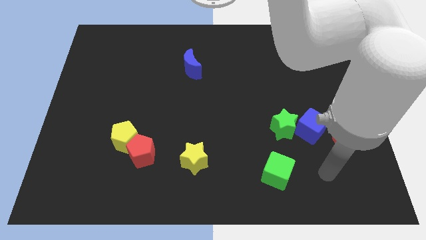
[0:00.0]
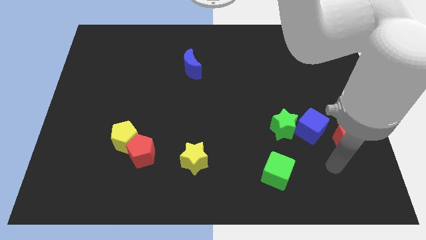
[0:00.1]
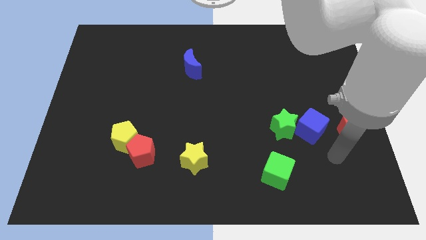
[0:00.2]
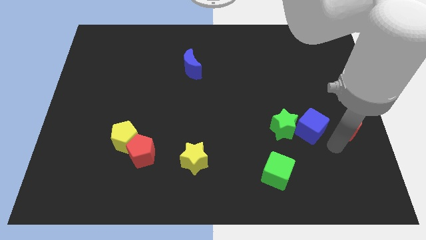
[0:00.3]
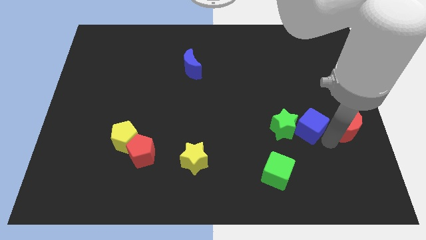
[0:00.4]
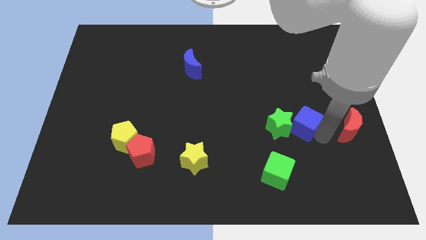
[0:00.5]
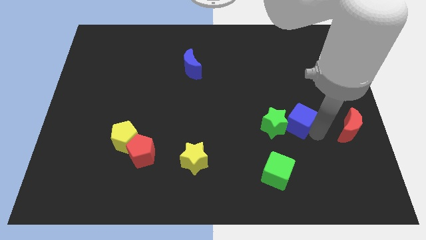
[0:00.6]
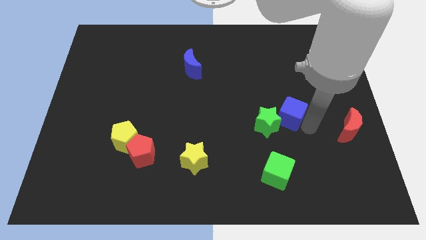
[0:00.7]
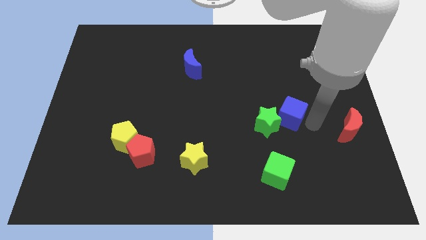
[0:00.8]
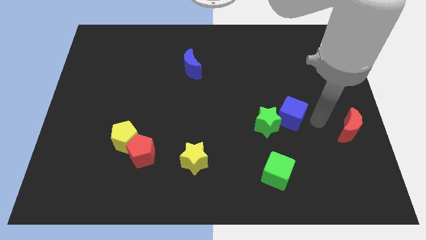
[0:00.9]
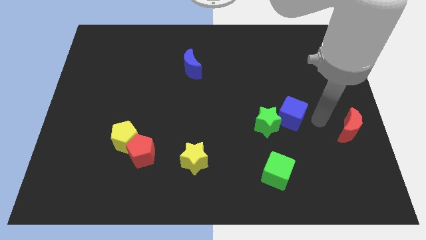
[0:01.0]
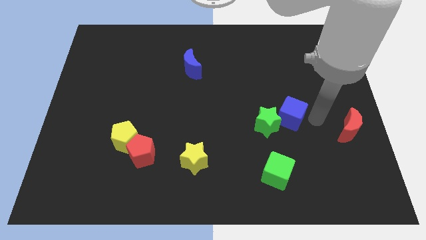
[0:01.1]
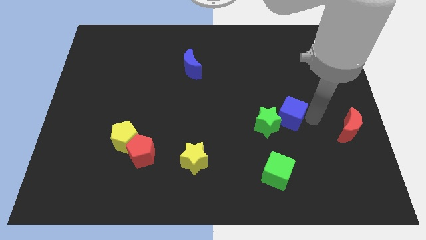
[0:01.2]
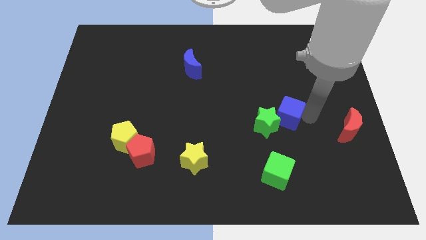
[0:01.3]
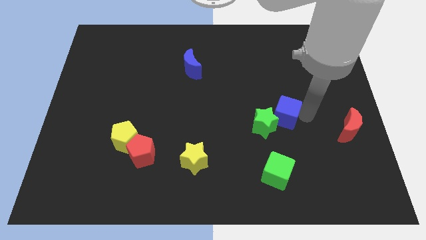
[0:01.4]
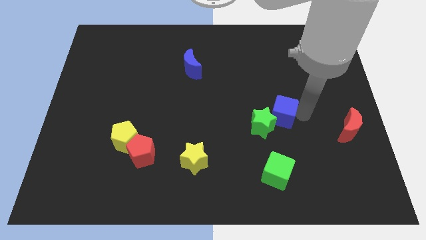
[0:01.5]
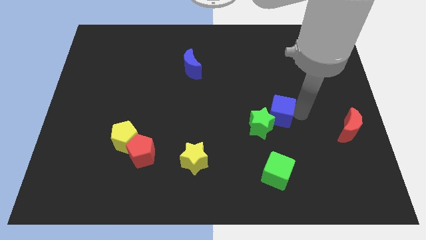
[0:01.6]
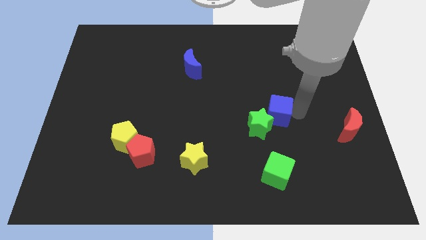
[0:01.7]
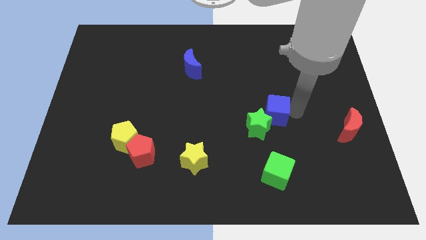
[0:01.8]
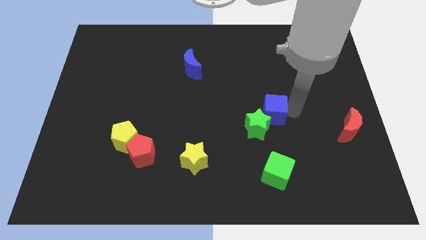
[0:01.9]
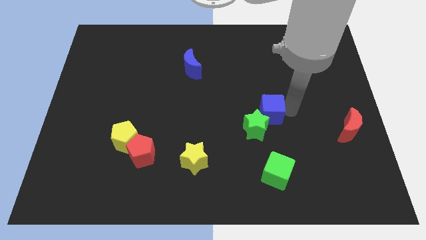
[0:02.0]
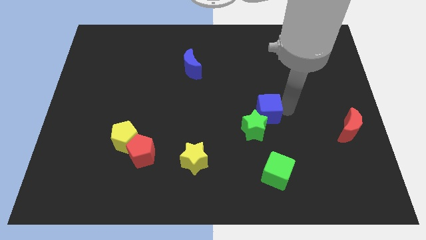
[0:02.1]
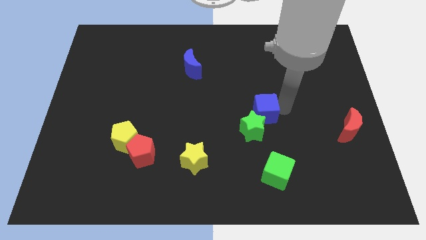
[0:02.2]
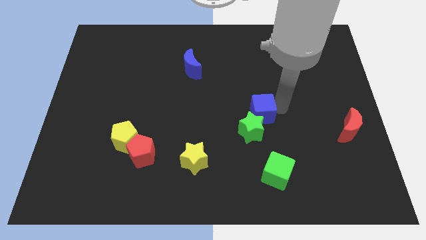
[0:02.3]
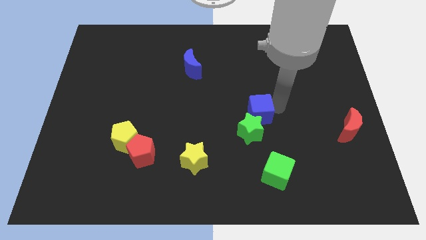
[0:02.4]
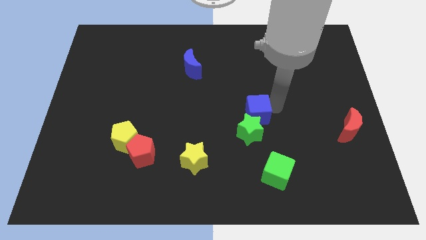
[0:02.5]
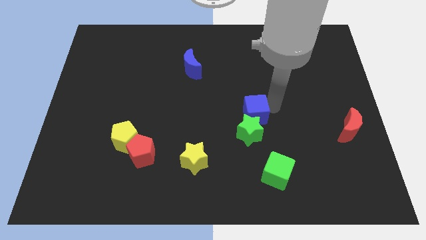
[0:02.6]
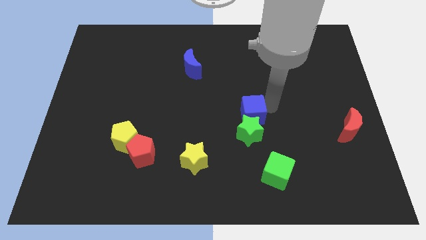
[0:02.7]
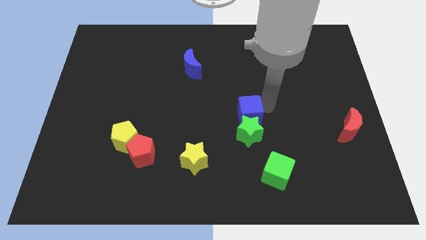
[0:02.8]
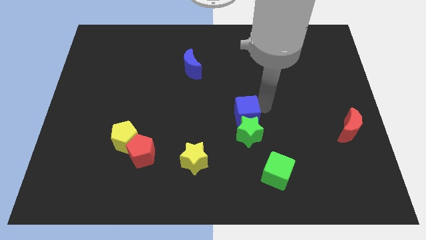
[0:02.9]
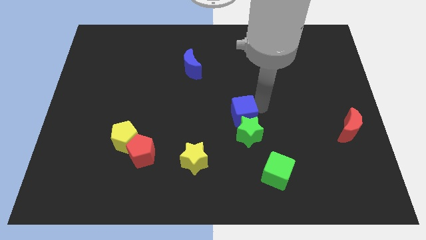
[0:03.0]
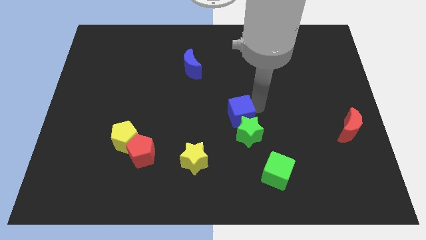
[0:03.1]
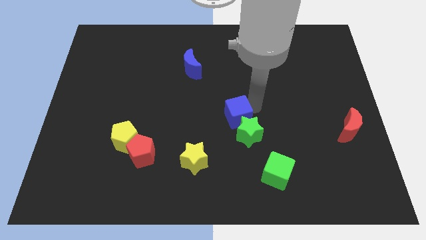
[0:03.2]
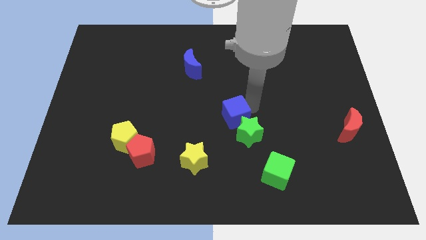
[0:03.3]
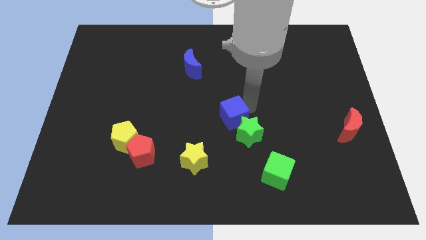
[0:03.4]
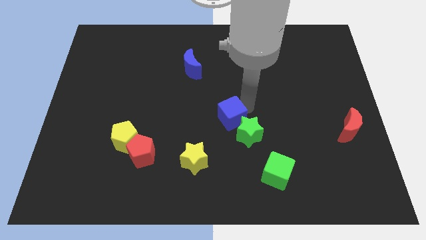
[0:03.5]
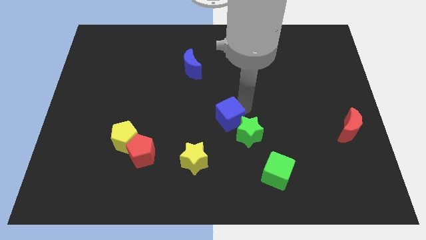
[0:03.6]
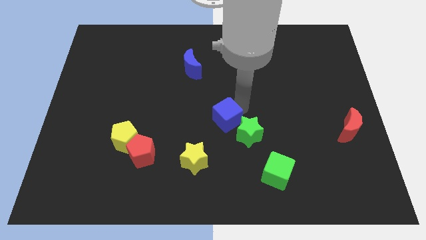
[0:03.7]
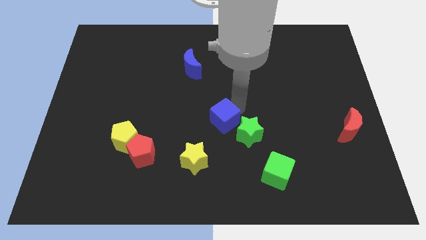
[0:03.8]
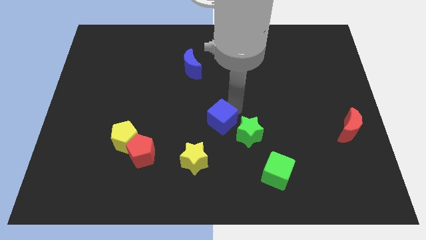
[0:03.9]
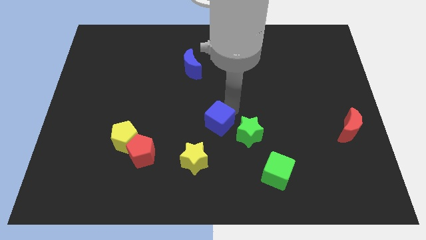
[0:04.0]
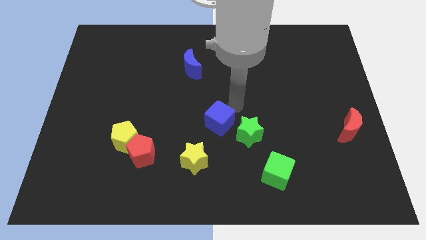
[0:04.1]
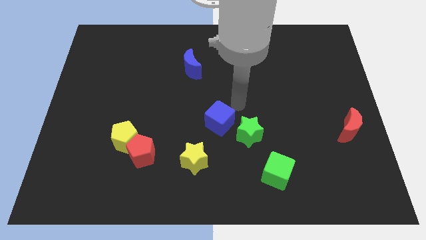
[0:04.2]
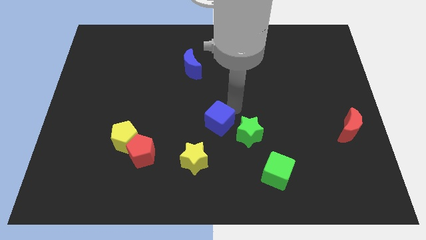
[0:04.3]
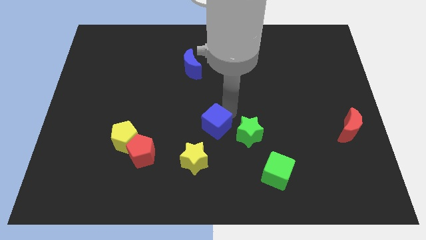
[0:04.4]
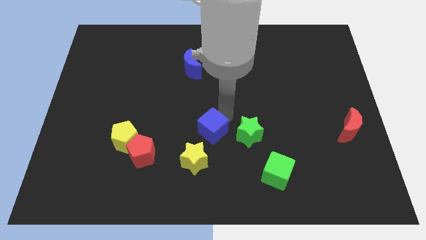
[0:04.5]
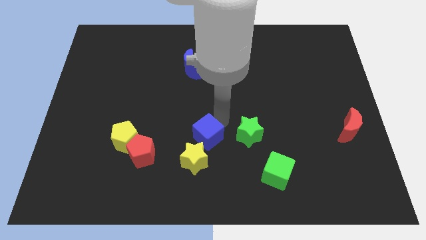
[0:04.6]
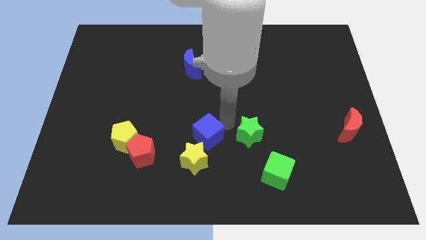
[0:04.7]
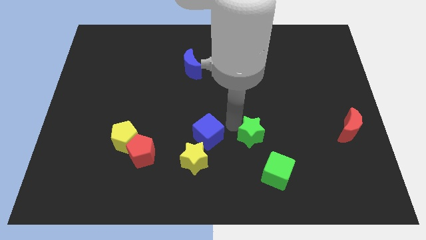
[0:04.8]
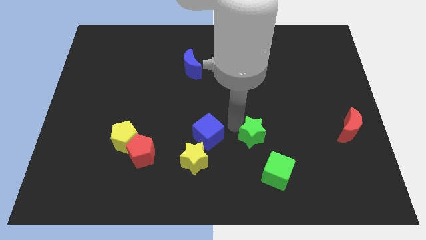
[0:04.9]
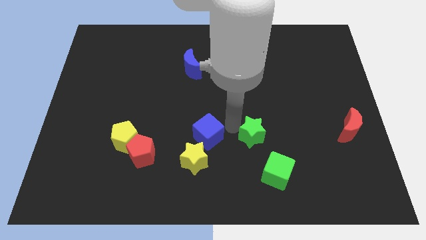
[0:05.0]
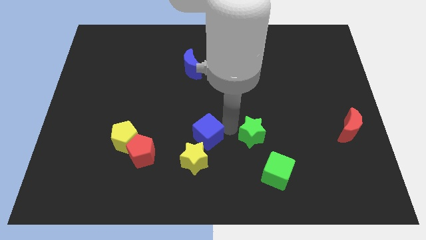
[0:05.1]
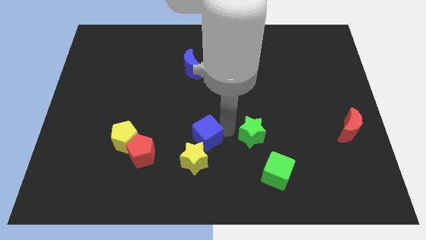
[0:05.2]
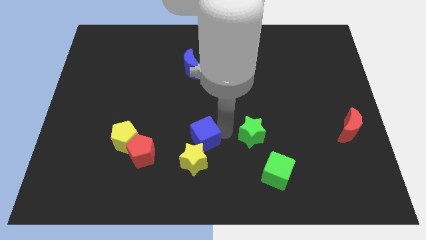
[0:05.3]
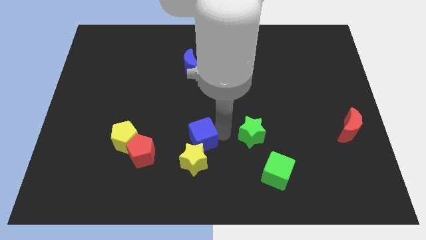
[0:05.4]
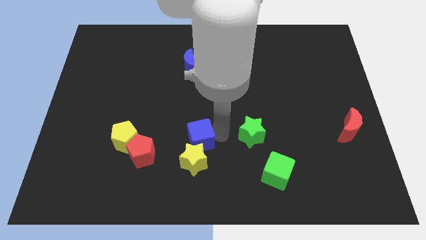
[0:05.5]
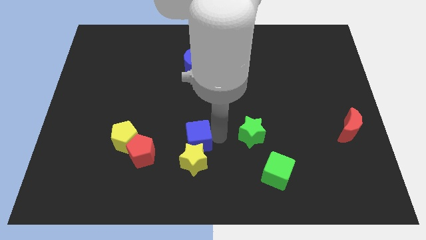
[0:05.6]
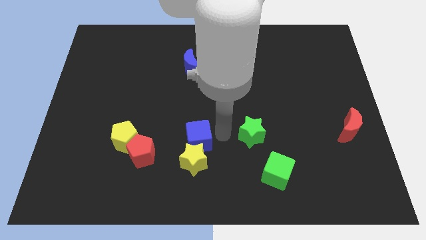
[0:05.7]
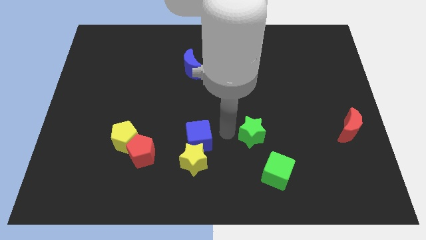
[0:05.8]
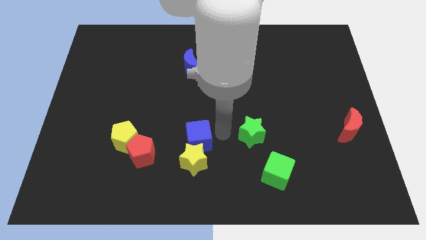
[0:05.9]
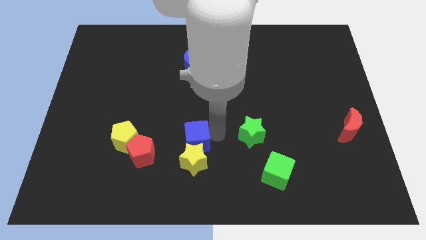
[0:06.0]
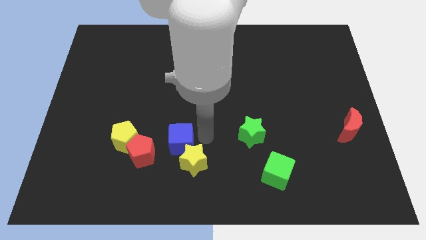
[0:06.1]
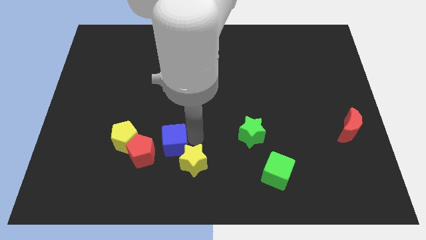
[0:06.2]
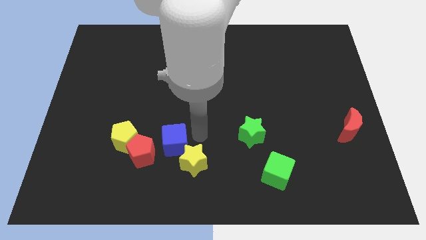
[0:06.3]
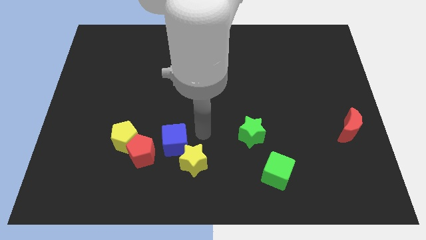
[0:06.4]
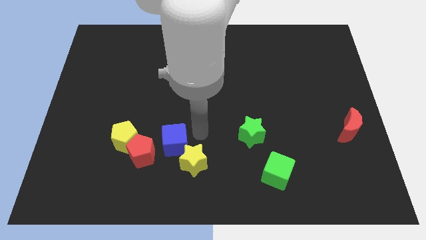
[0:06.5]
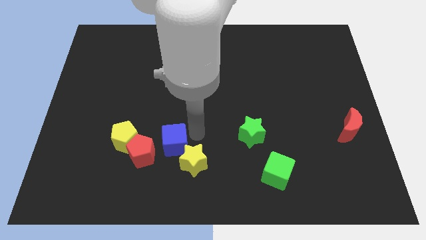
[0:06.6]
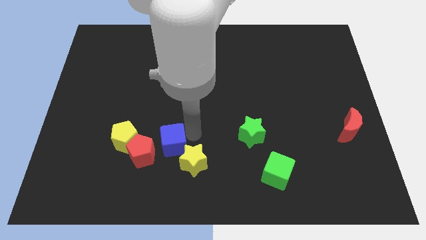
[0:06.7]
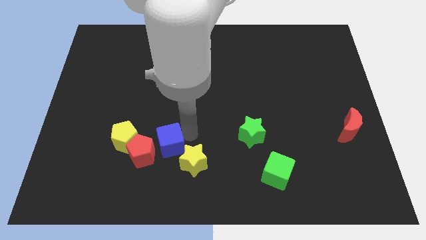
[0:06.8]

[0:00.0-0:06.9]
slide the blue cube close to the red pentagon

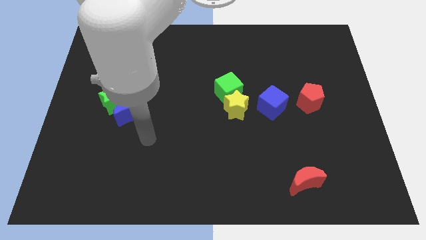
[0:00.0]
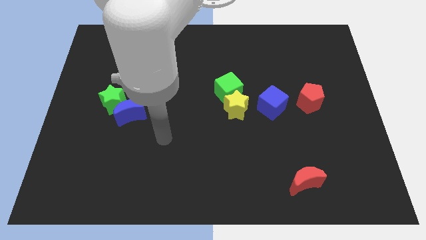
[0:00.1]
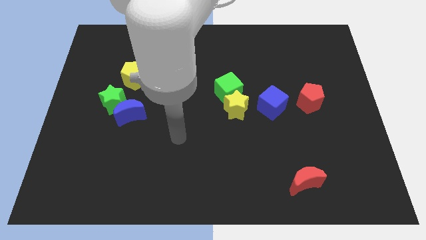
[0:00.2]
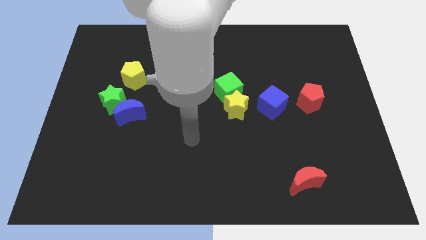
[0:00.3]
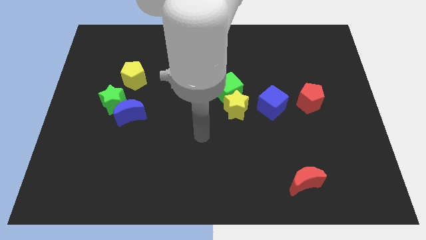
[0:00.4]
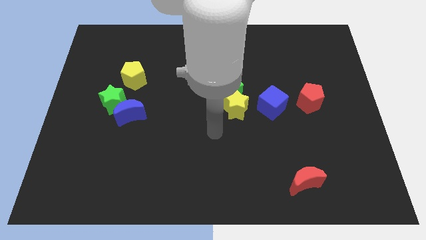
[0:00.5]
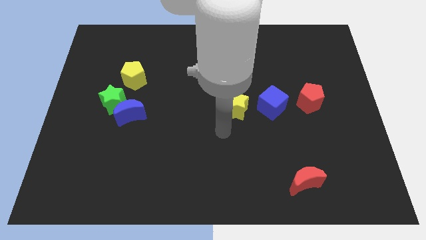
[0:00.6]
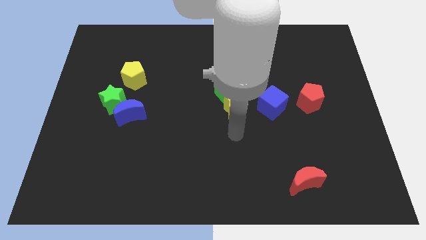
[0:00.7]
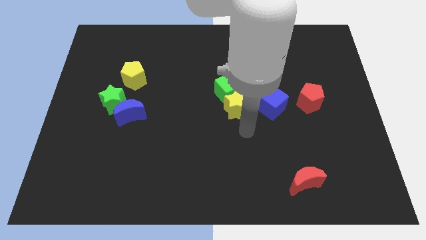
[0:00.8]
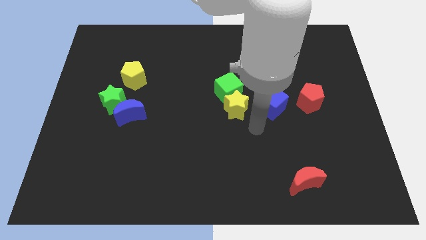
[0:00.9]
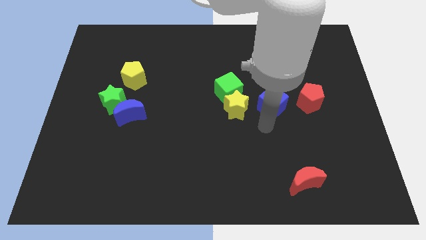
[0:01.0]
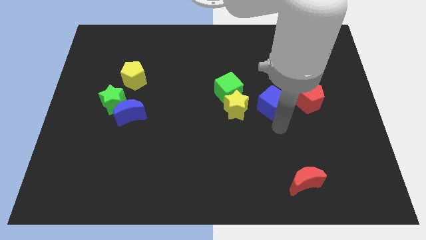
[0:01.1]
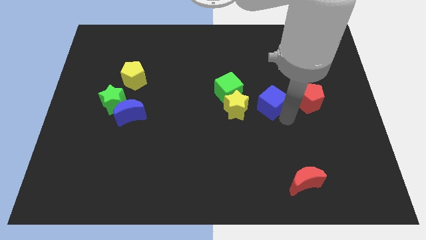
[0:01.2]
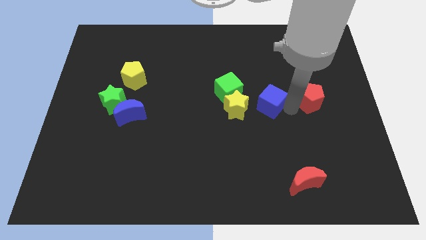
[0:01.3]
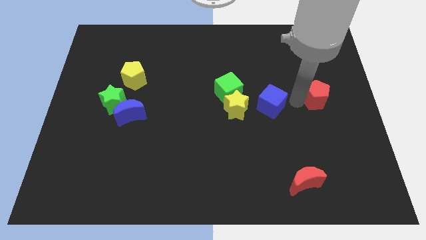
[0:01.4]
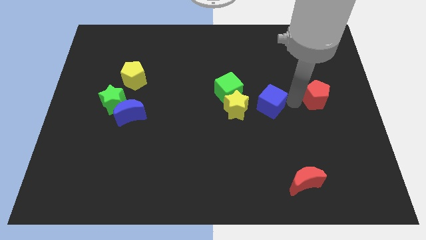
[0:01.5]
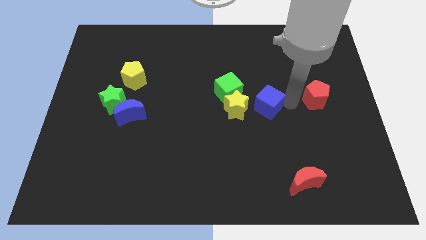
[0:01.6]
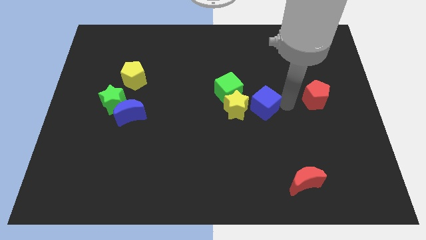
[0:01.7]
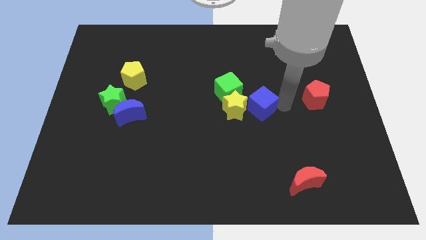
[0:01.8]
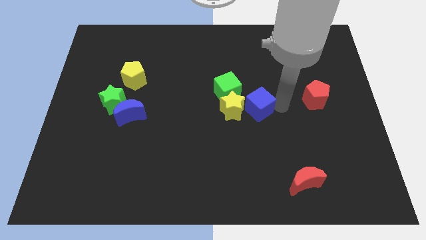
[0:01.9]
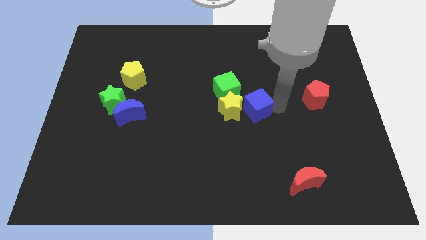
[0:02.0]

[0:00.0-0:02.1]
slide the blue cube to the yellow star
